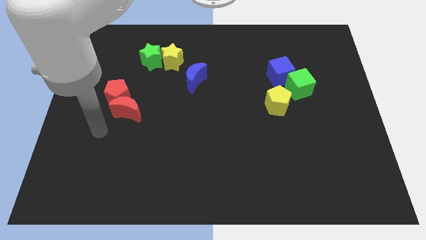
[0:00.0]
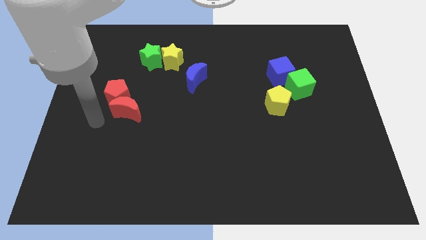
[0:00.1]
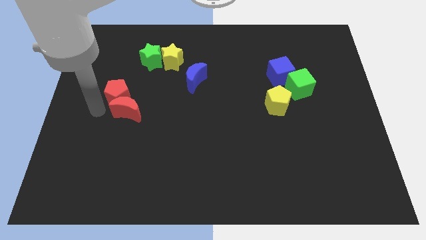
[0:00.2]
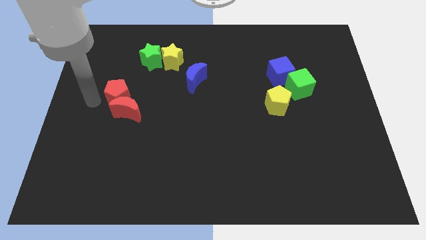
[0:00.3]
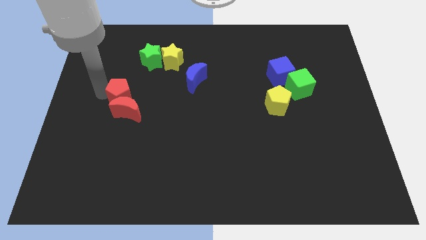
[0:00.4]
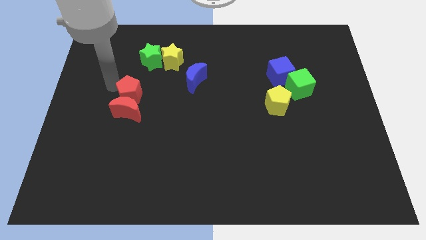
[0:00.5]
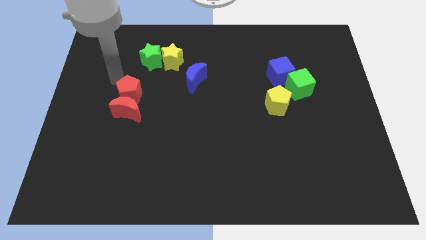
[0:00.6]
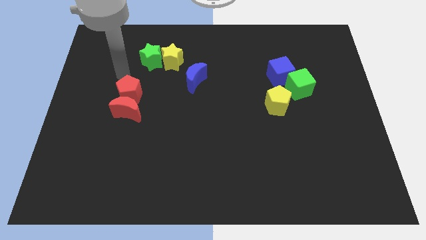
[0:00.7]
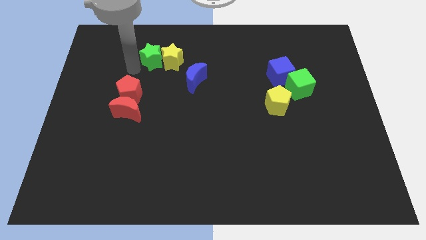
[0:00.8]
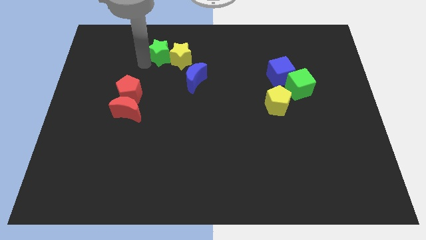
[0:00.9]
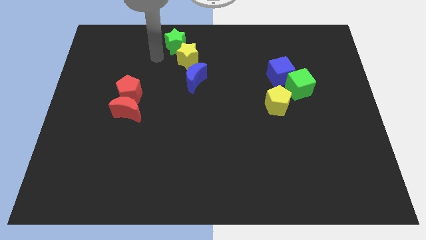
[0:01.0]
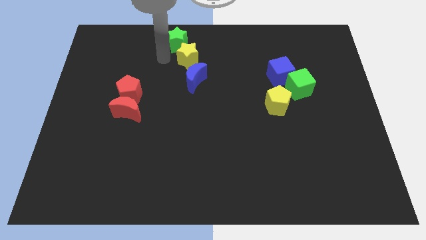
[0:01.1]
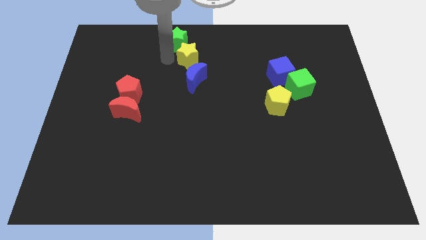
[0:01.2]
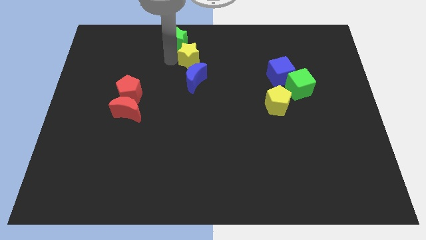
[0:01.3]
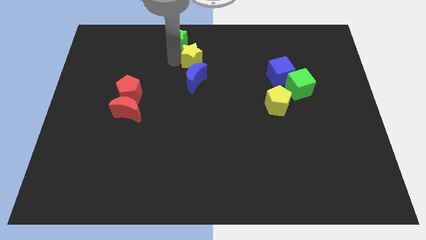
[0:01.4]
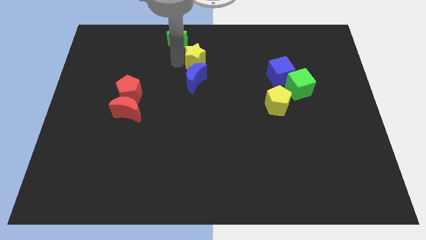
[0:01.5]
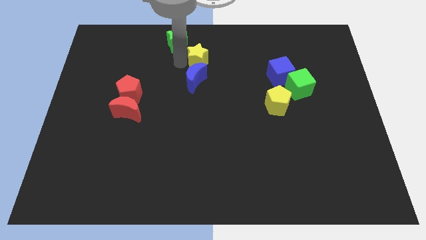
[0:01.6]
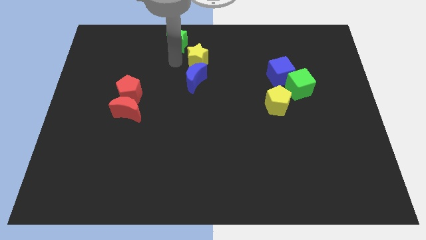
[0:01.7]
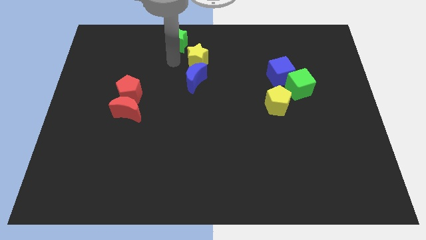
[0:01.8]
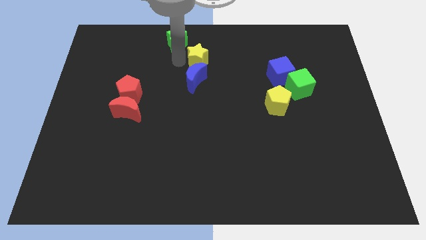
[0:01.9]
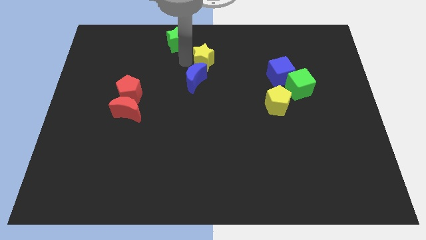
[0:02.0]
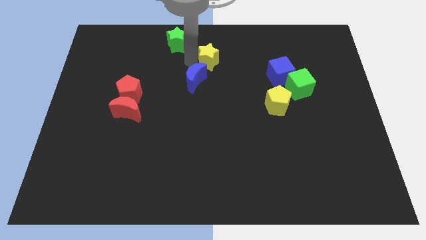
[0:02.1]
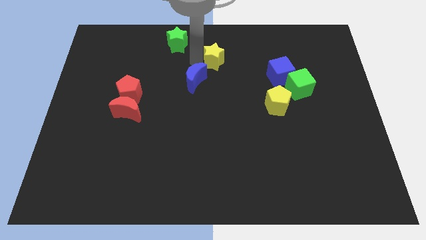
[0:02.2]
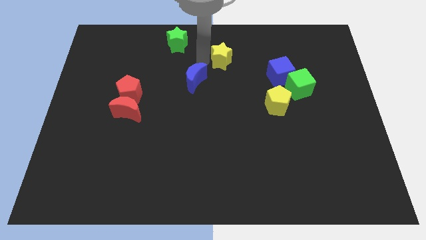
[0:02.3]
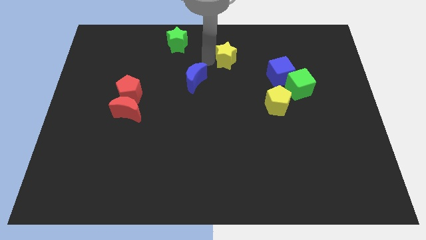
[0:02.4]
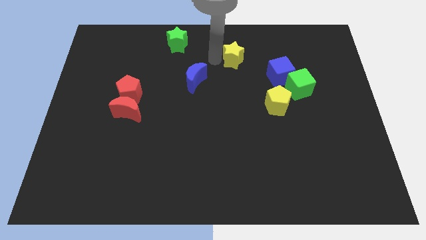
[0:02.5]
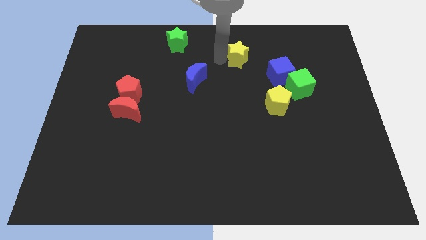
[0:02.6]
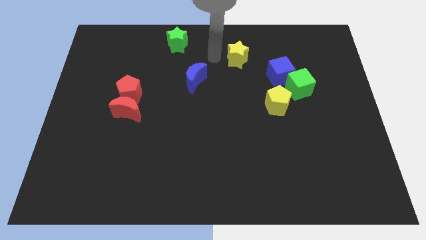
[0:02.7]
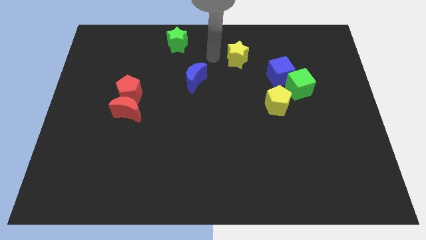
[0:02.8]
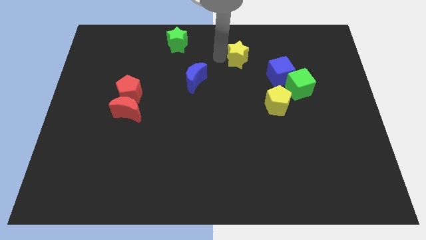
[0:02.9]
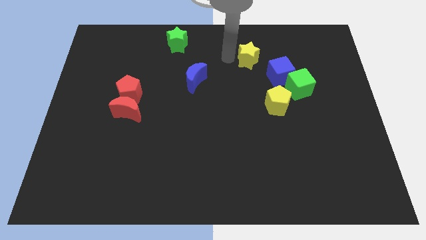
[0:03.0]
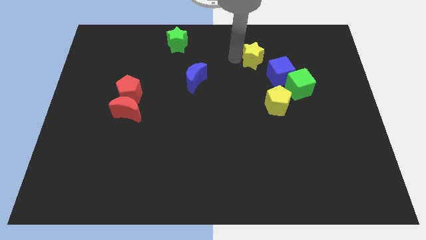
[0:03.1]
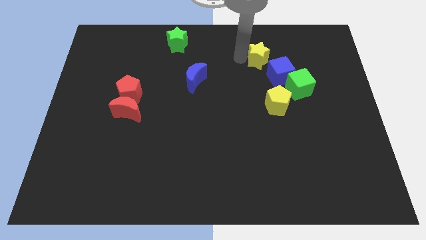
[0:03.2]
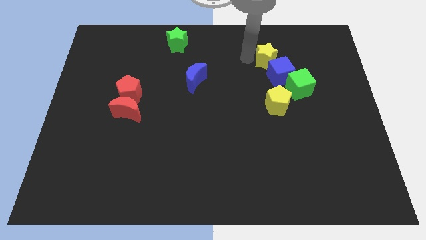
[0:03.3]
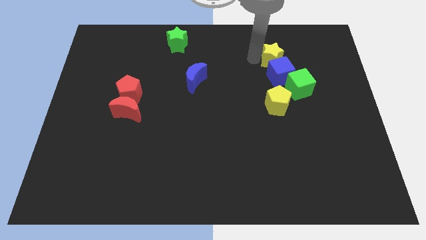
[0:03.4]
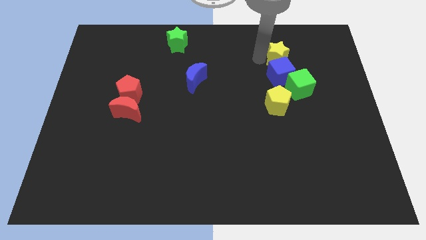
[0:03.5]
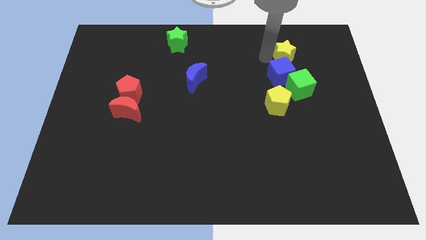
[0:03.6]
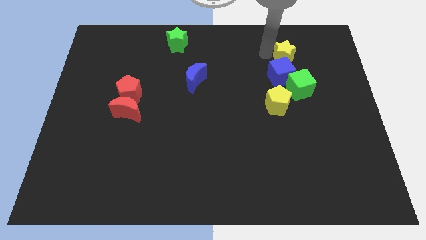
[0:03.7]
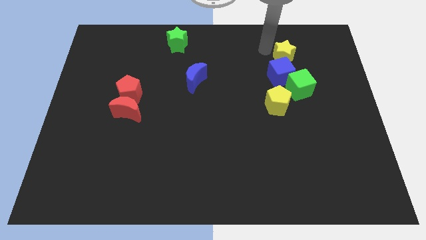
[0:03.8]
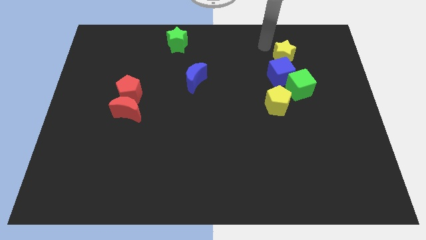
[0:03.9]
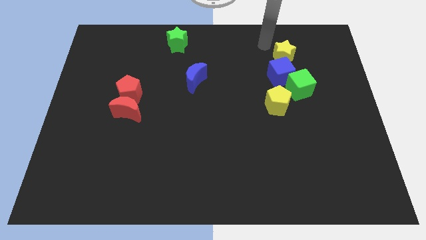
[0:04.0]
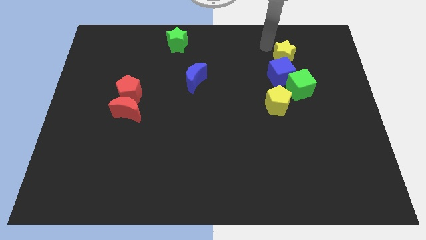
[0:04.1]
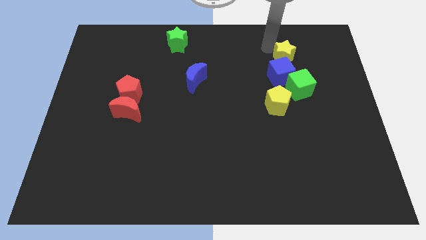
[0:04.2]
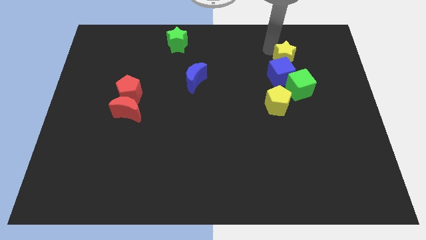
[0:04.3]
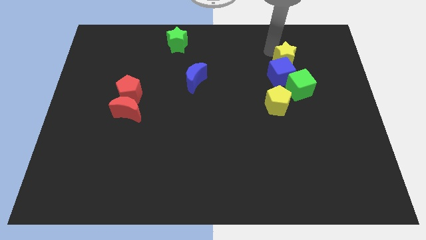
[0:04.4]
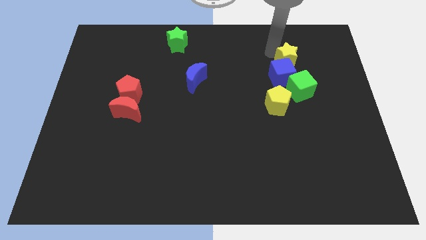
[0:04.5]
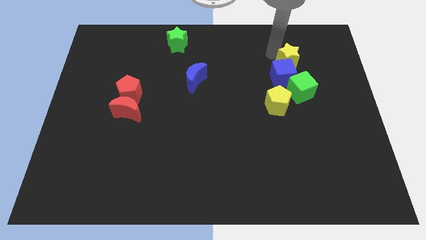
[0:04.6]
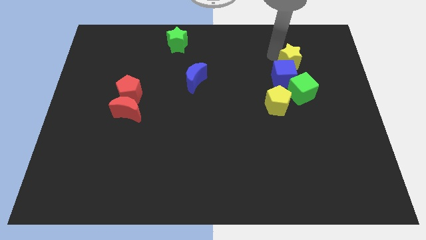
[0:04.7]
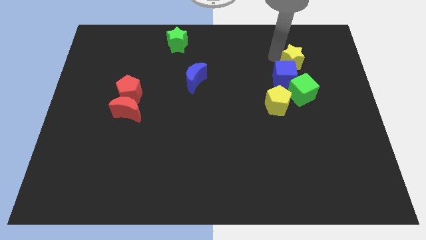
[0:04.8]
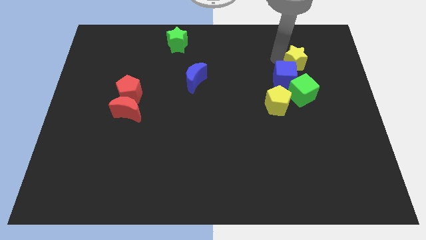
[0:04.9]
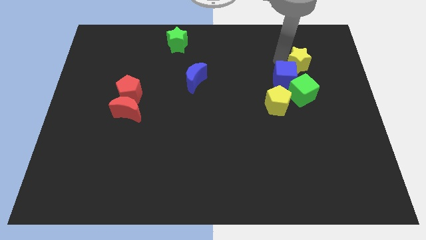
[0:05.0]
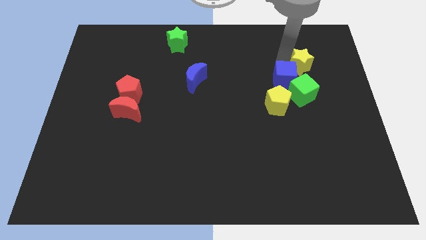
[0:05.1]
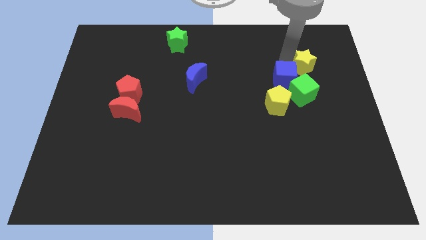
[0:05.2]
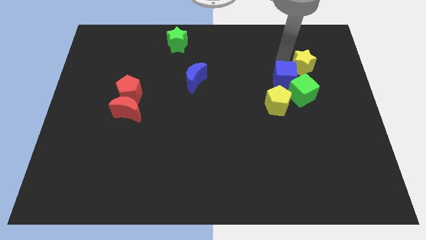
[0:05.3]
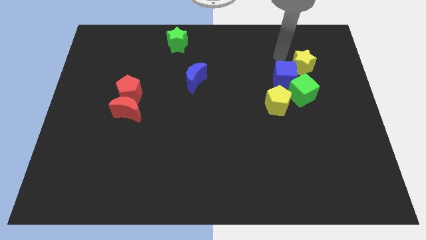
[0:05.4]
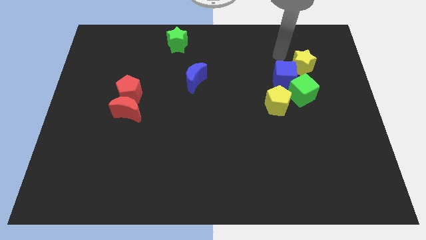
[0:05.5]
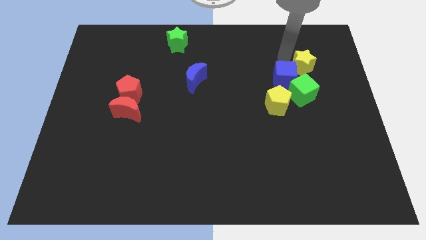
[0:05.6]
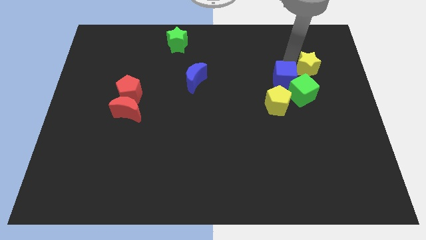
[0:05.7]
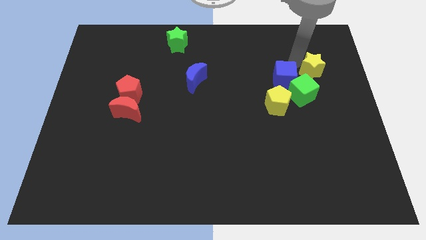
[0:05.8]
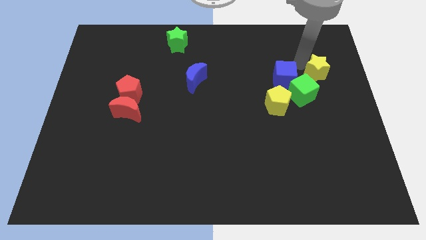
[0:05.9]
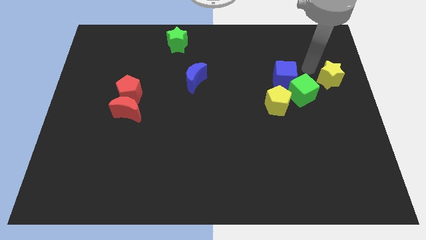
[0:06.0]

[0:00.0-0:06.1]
move the yellow star to the right side
